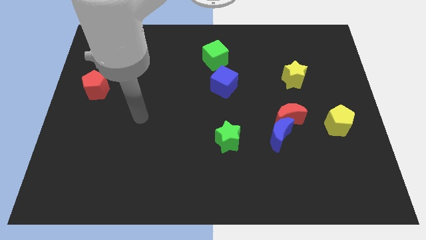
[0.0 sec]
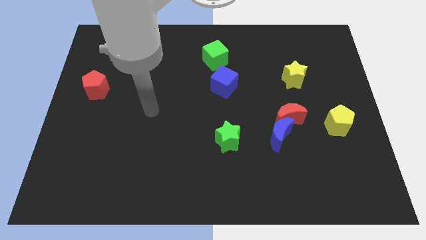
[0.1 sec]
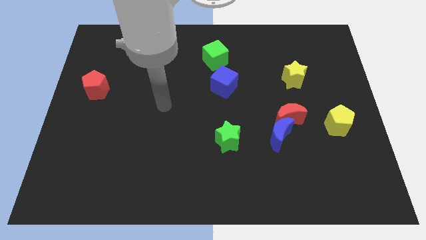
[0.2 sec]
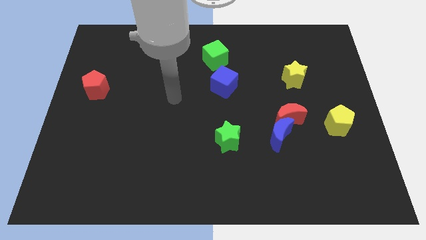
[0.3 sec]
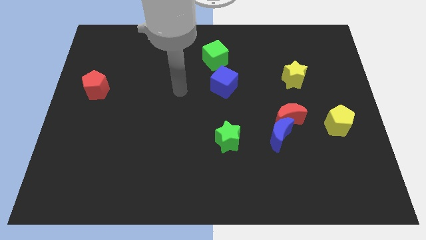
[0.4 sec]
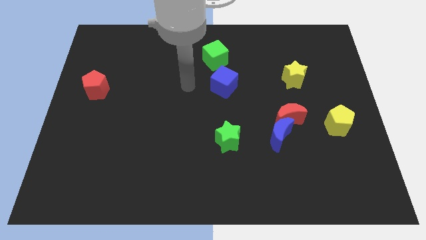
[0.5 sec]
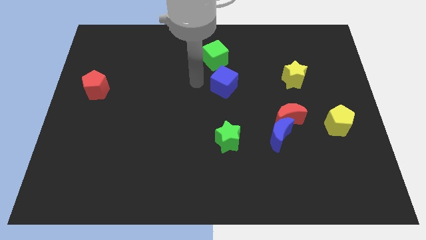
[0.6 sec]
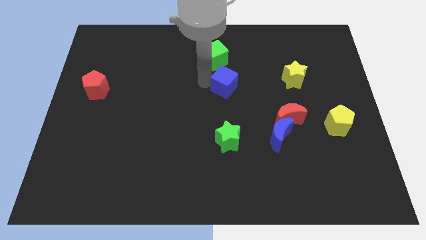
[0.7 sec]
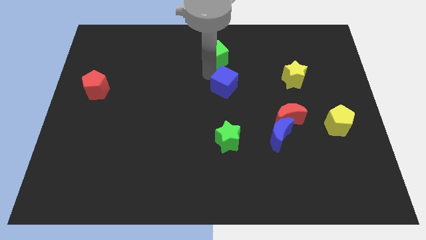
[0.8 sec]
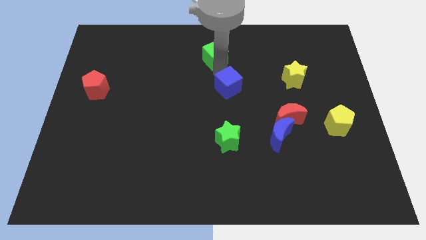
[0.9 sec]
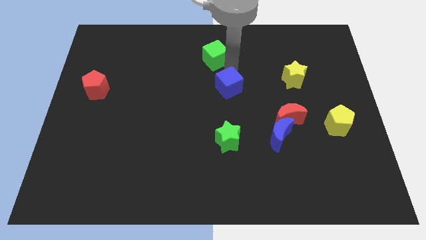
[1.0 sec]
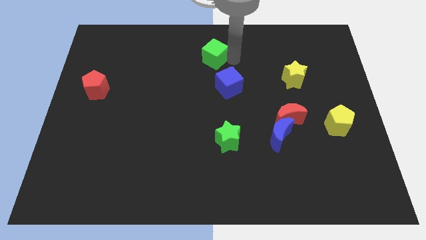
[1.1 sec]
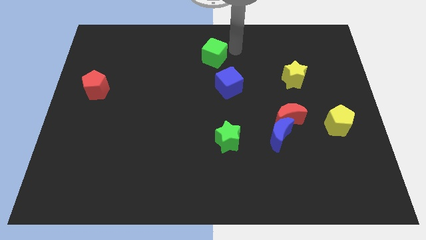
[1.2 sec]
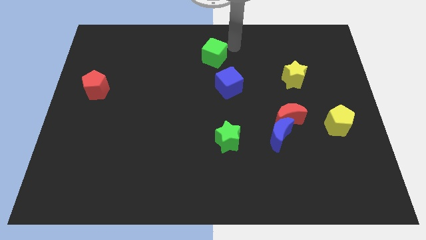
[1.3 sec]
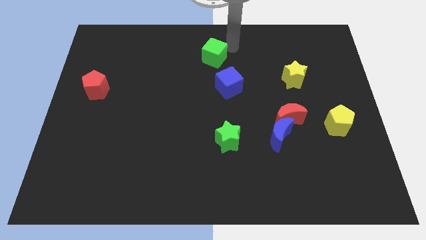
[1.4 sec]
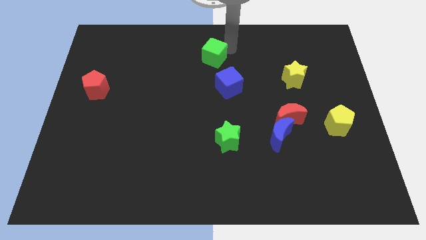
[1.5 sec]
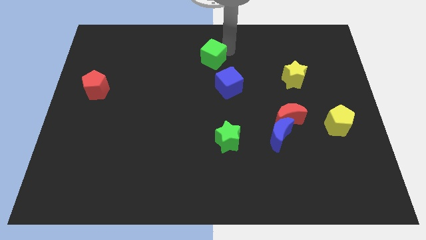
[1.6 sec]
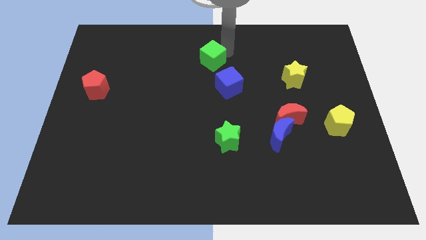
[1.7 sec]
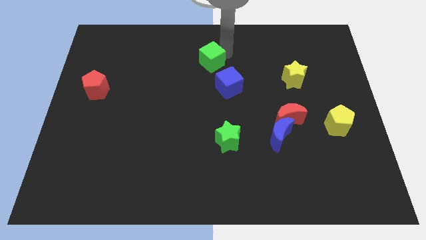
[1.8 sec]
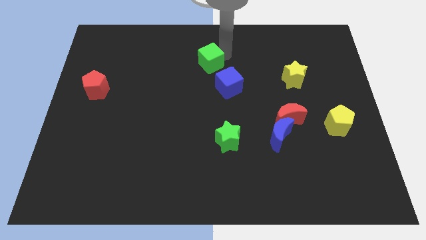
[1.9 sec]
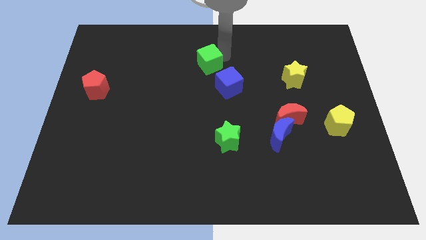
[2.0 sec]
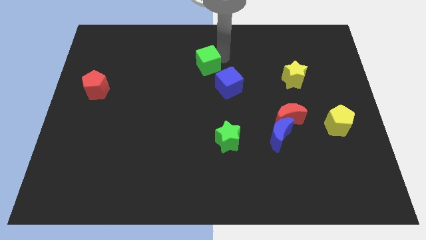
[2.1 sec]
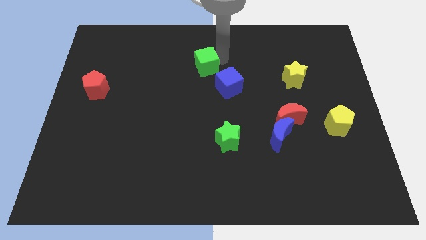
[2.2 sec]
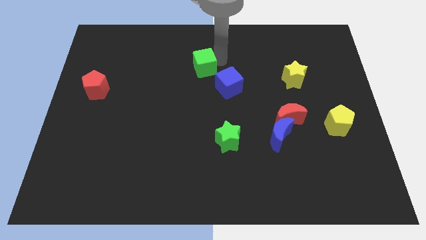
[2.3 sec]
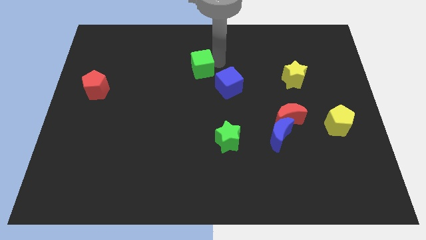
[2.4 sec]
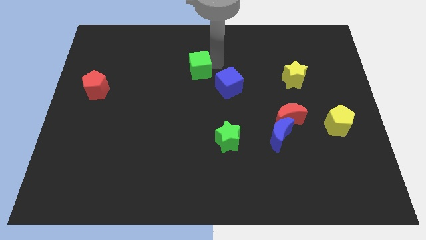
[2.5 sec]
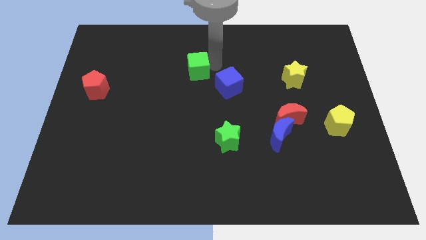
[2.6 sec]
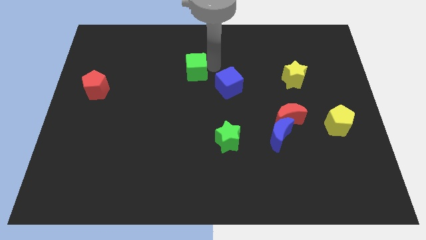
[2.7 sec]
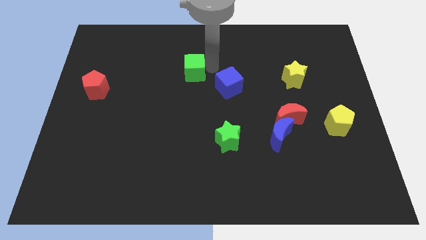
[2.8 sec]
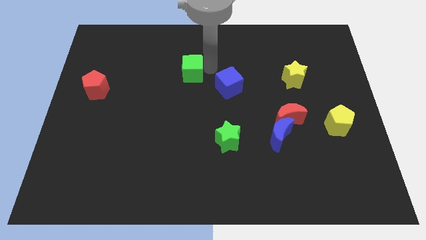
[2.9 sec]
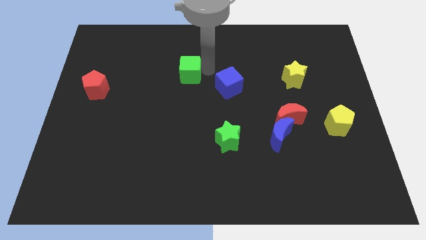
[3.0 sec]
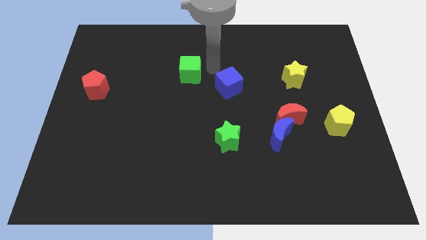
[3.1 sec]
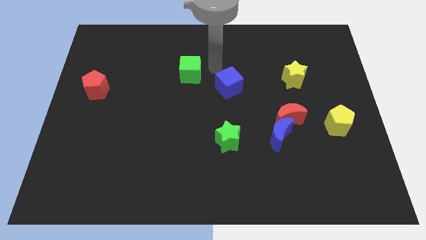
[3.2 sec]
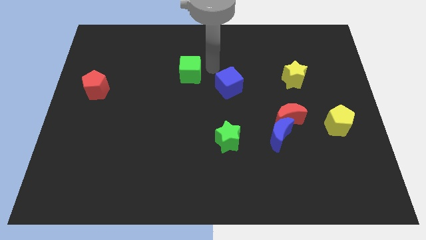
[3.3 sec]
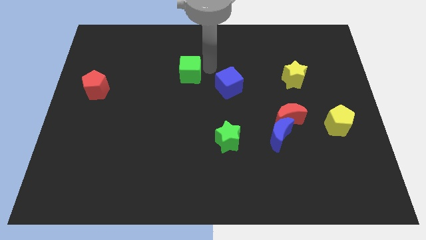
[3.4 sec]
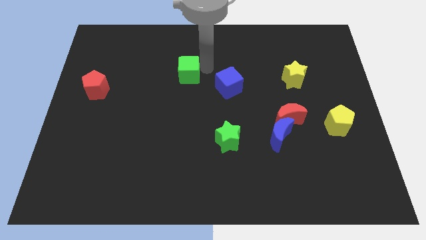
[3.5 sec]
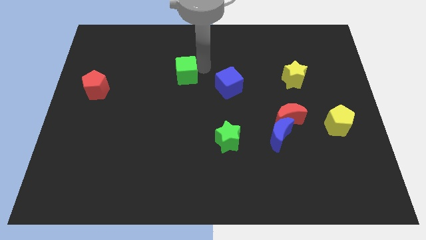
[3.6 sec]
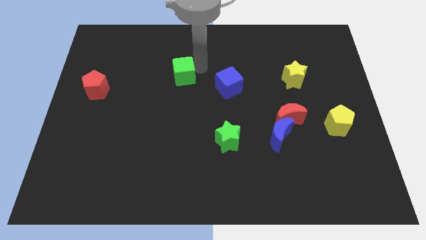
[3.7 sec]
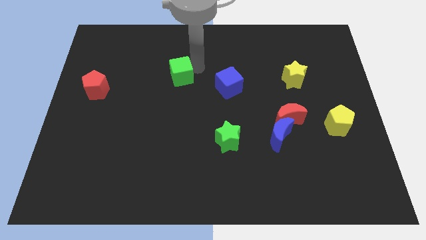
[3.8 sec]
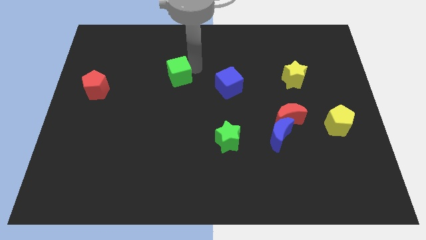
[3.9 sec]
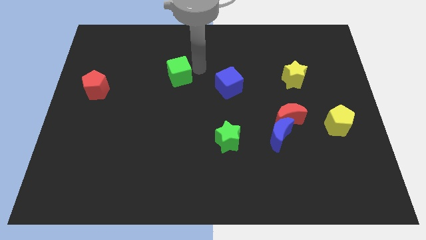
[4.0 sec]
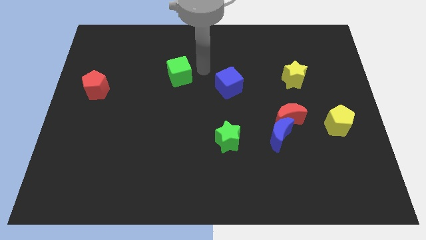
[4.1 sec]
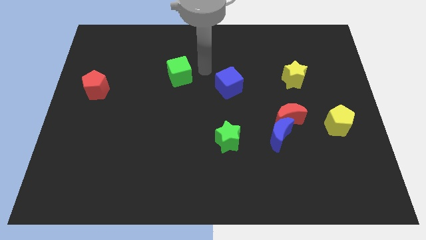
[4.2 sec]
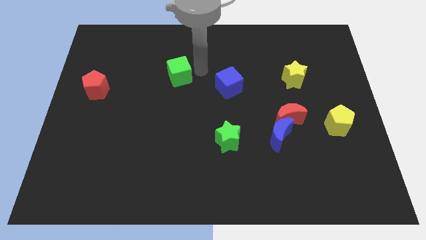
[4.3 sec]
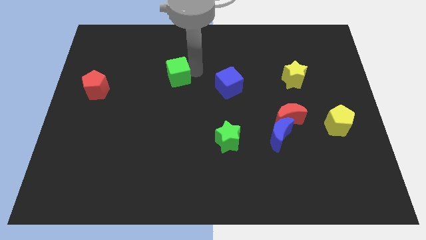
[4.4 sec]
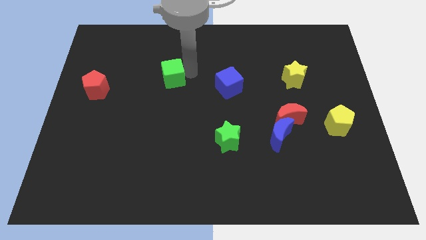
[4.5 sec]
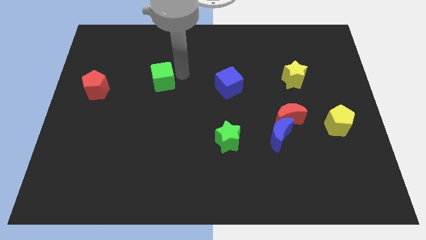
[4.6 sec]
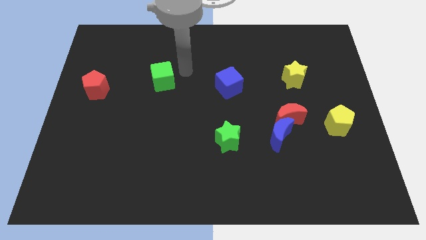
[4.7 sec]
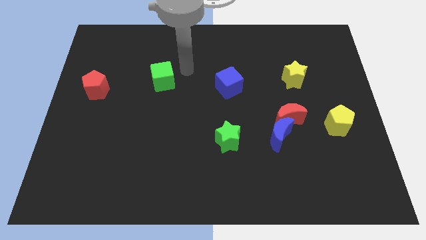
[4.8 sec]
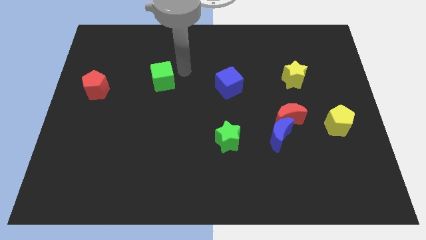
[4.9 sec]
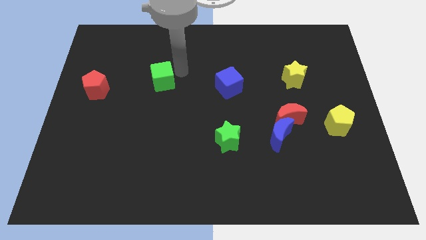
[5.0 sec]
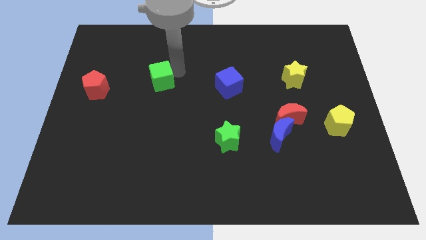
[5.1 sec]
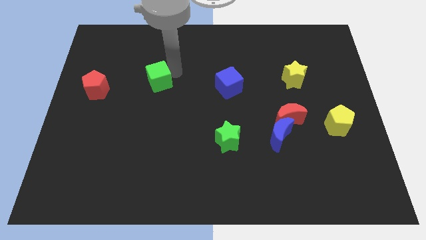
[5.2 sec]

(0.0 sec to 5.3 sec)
move the green cube to the right side of the red pentagon

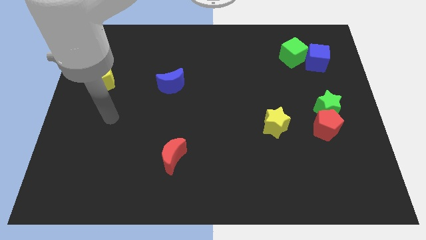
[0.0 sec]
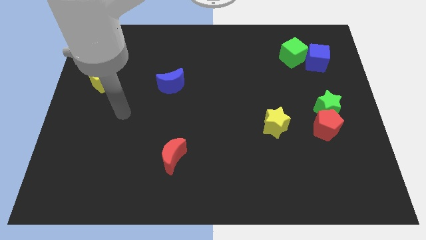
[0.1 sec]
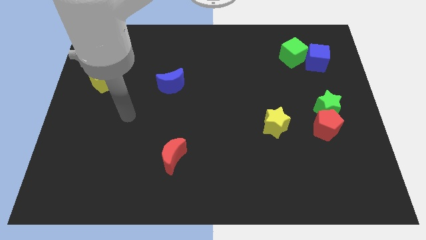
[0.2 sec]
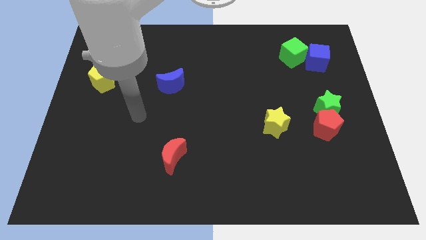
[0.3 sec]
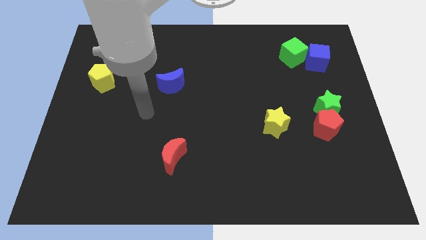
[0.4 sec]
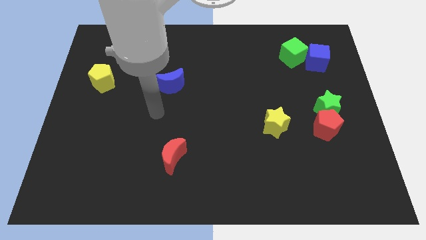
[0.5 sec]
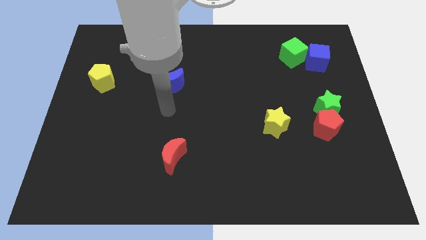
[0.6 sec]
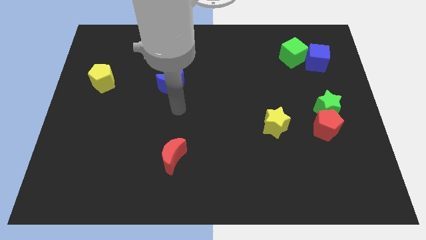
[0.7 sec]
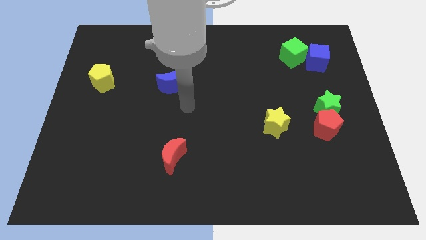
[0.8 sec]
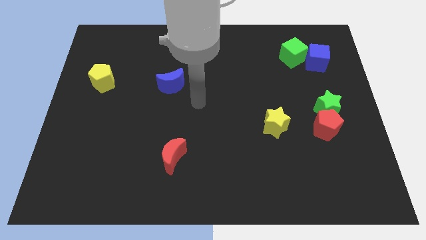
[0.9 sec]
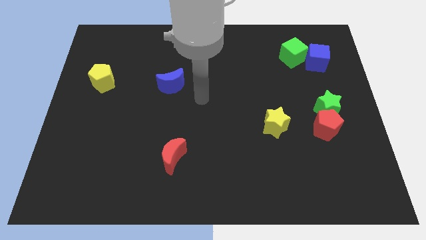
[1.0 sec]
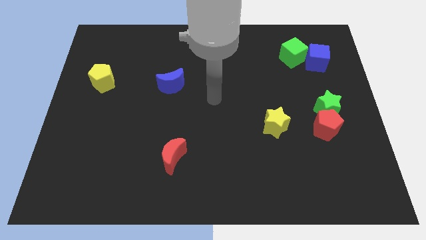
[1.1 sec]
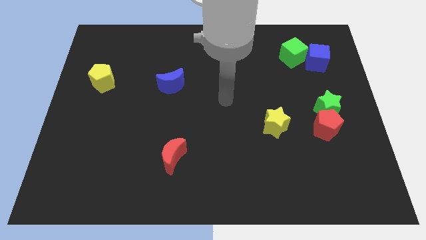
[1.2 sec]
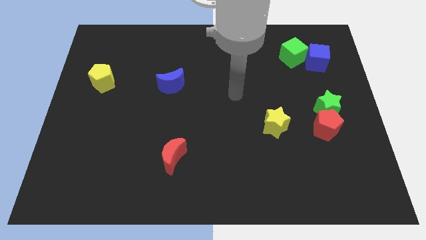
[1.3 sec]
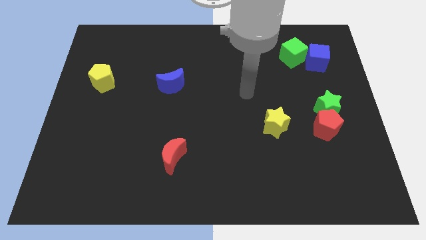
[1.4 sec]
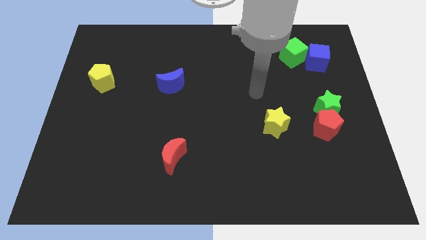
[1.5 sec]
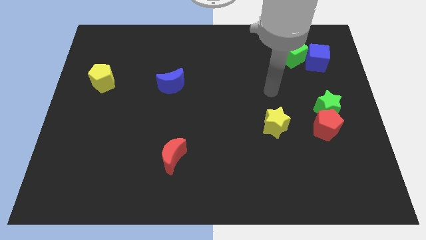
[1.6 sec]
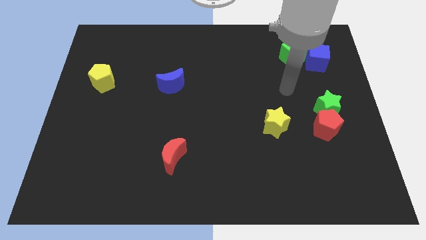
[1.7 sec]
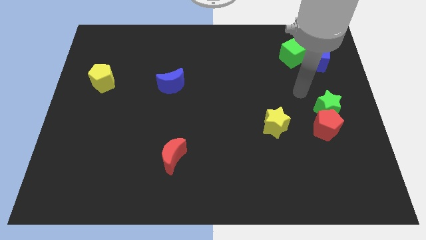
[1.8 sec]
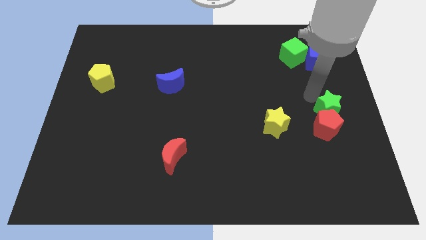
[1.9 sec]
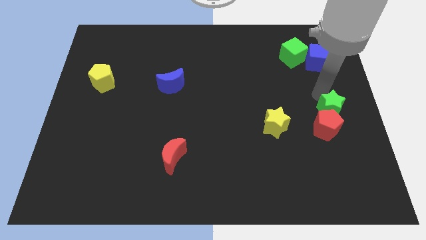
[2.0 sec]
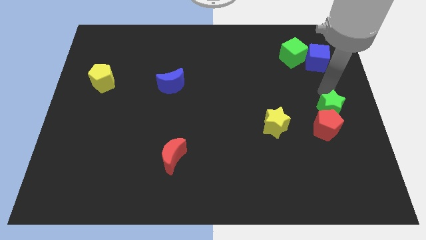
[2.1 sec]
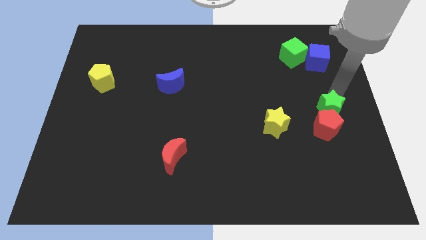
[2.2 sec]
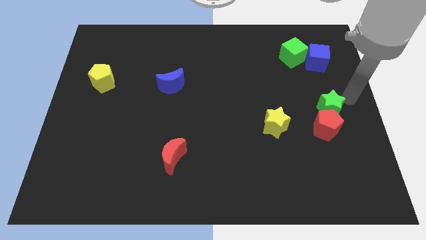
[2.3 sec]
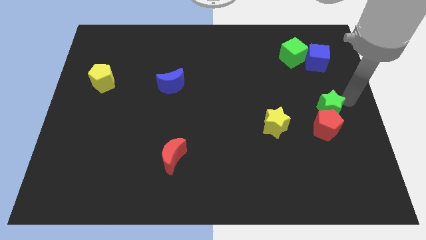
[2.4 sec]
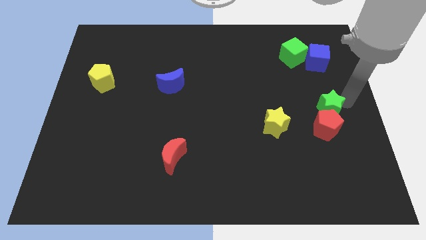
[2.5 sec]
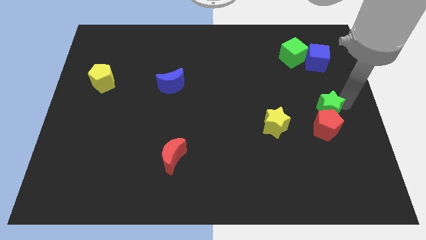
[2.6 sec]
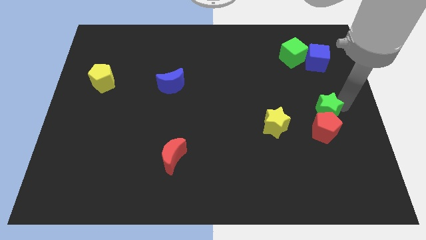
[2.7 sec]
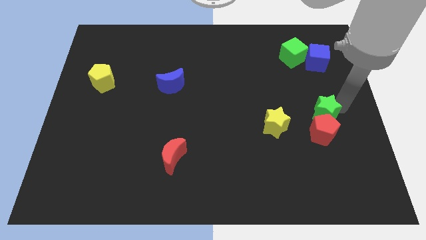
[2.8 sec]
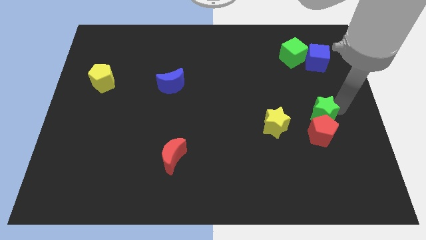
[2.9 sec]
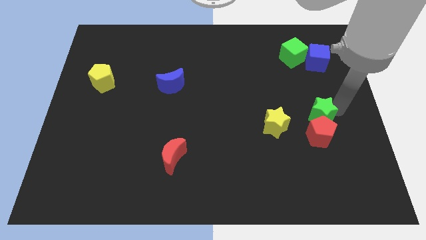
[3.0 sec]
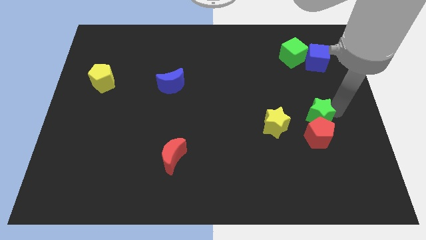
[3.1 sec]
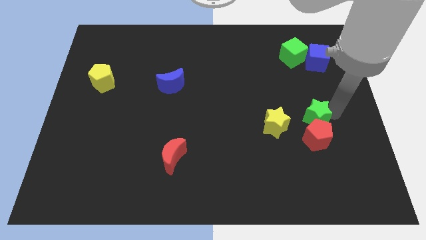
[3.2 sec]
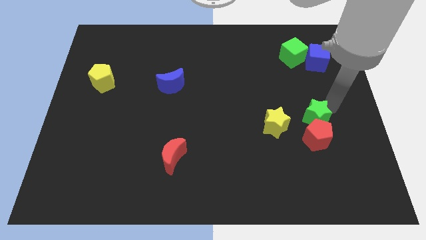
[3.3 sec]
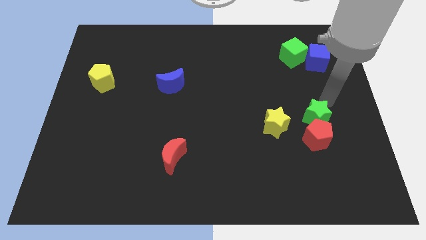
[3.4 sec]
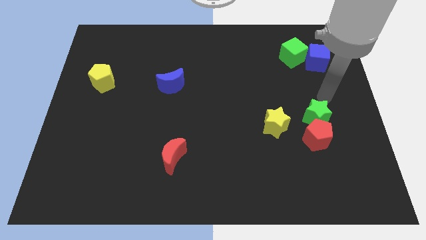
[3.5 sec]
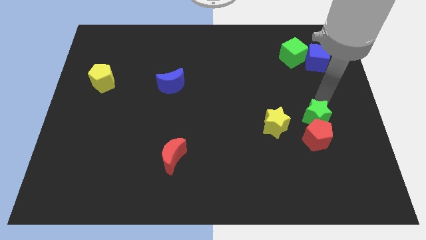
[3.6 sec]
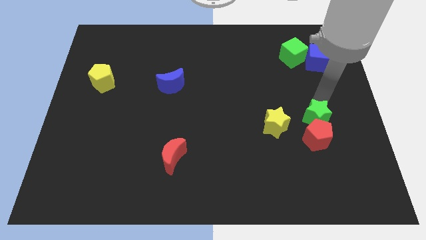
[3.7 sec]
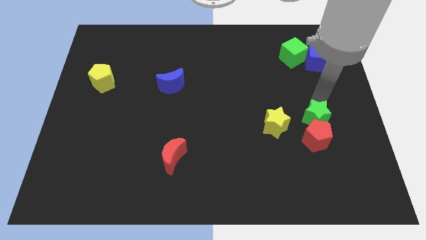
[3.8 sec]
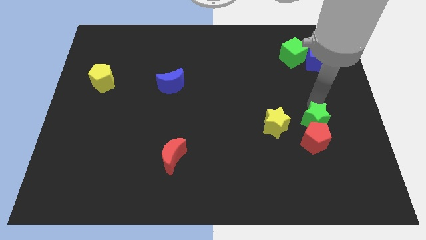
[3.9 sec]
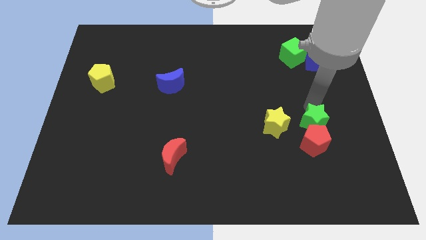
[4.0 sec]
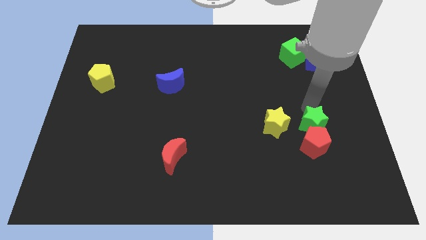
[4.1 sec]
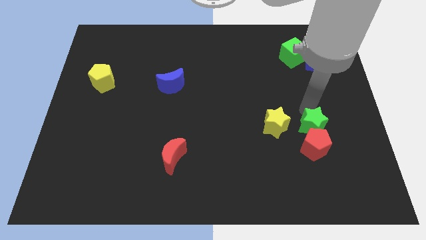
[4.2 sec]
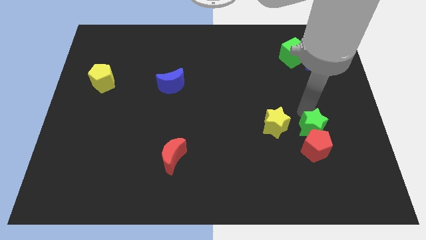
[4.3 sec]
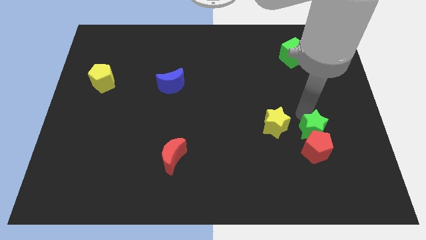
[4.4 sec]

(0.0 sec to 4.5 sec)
put the green star to the bottom right of the yellow star
